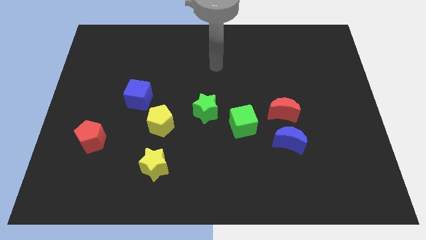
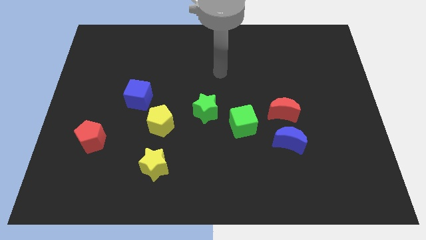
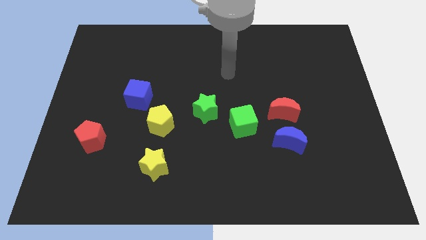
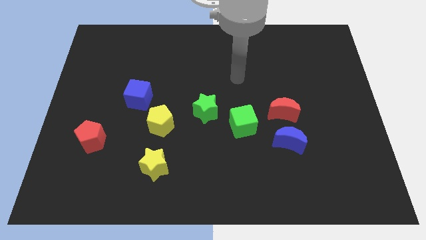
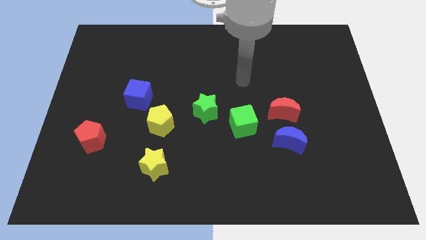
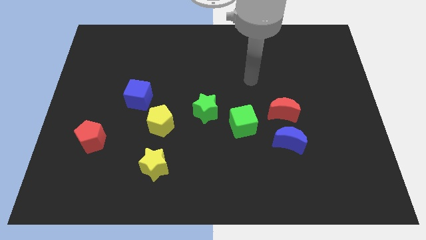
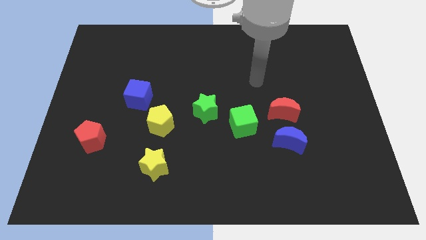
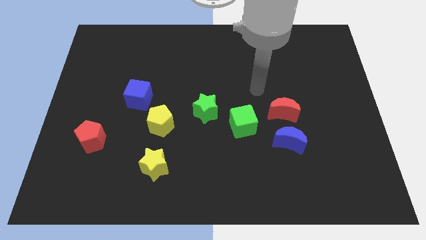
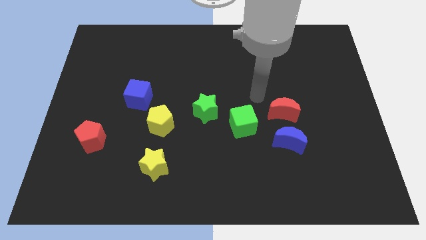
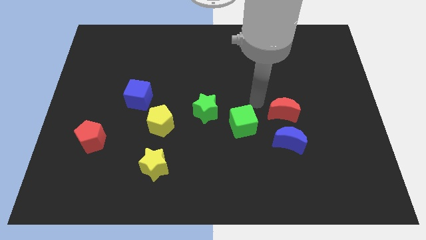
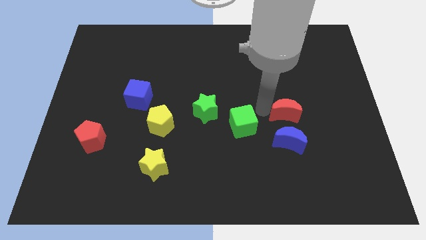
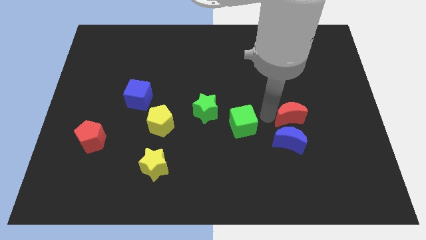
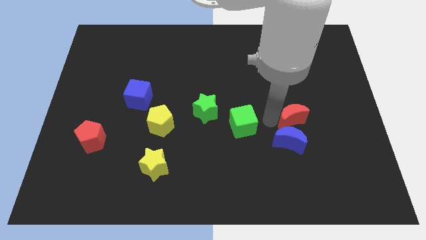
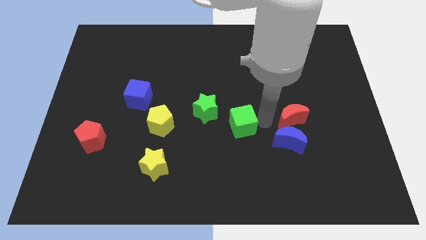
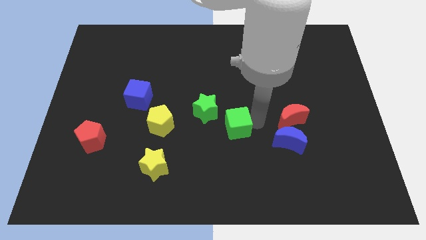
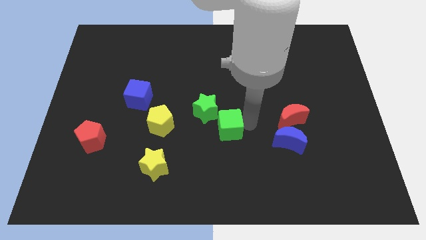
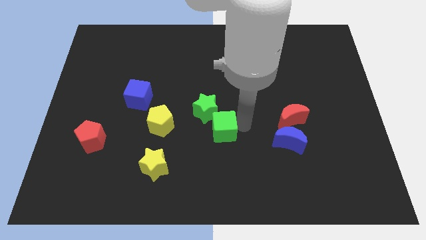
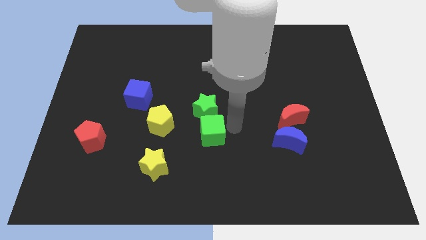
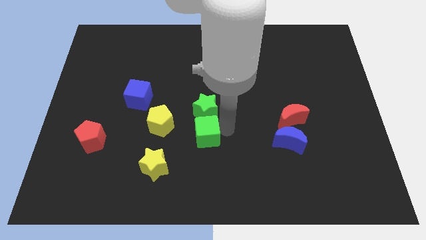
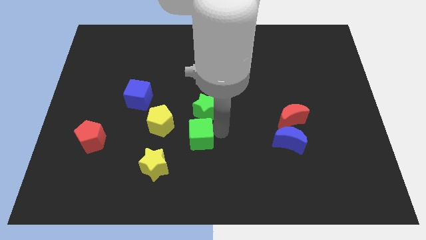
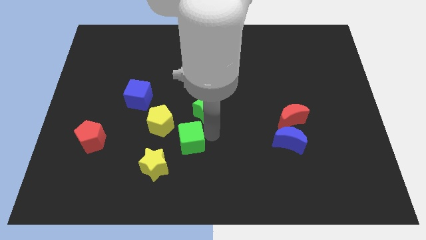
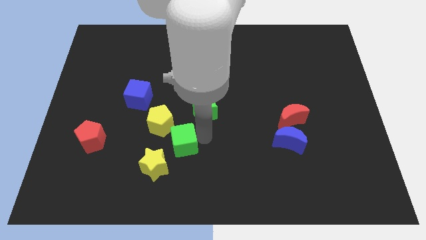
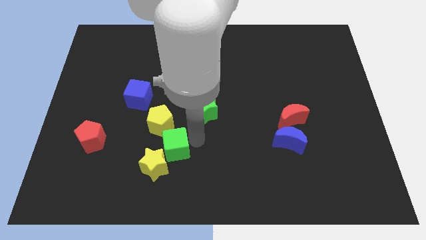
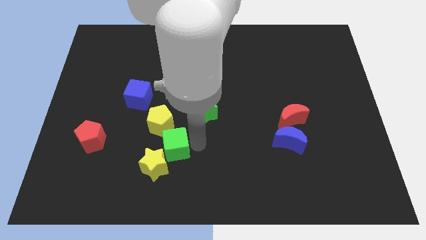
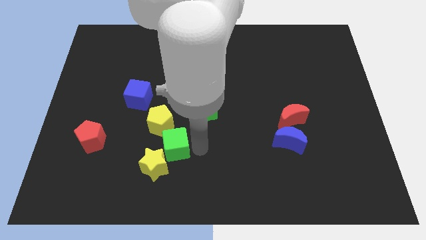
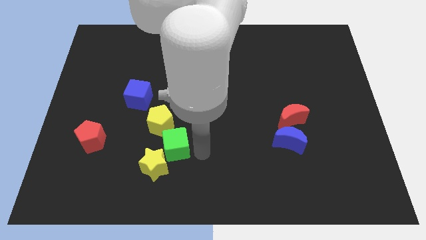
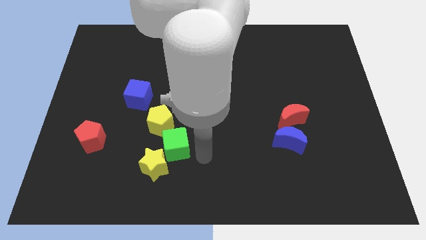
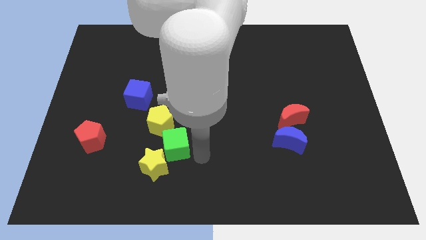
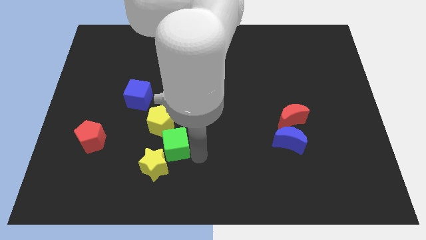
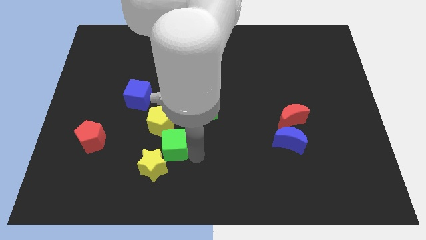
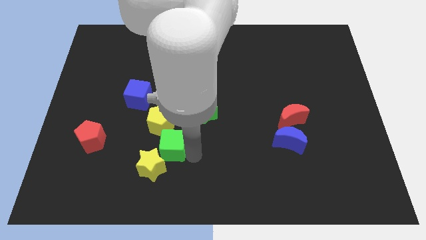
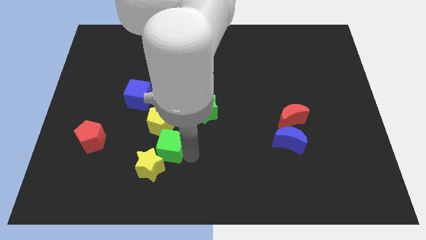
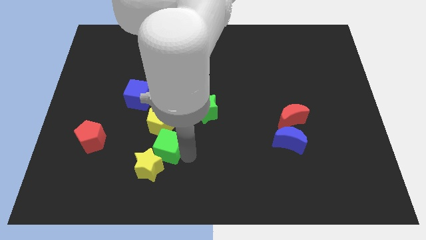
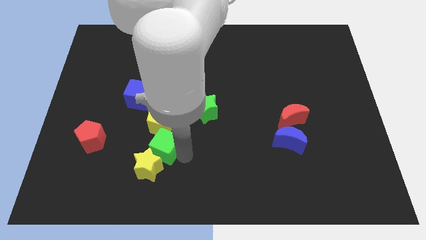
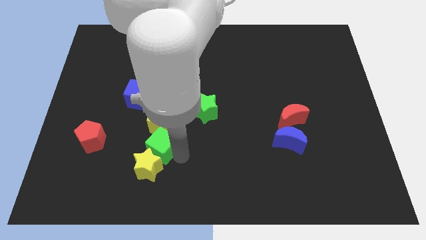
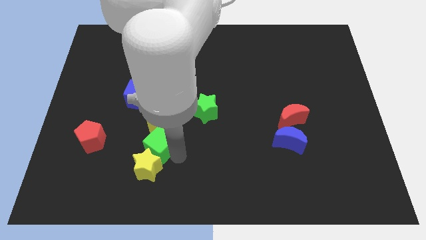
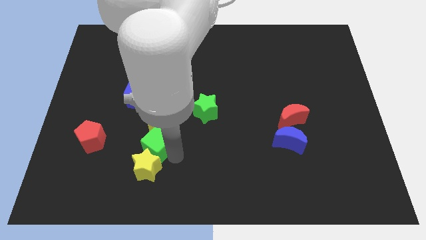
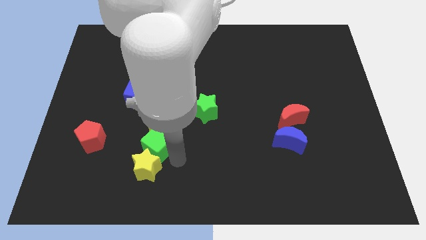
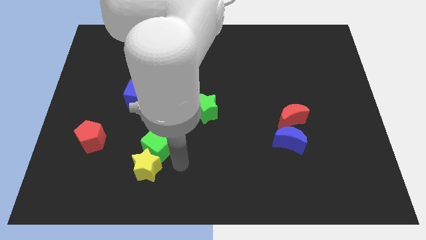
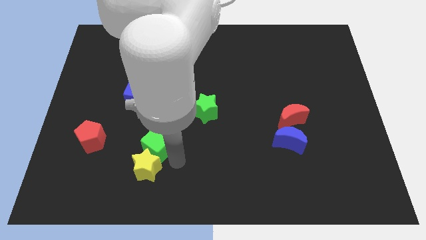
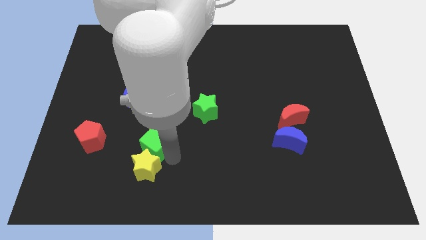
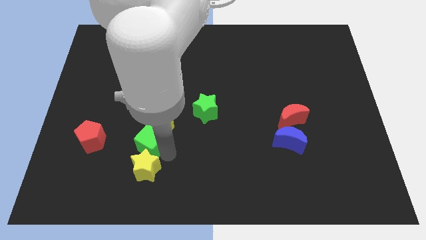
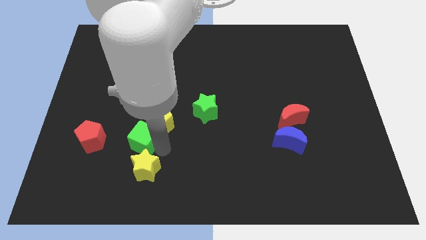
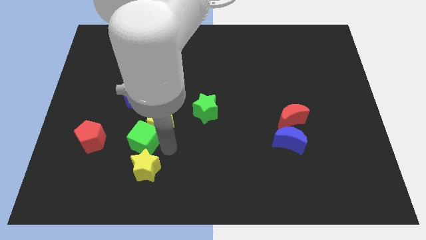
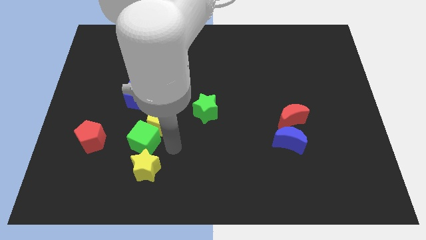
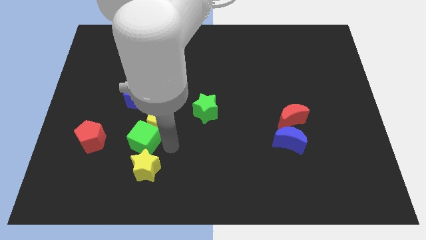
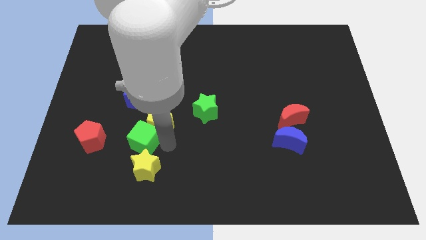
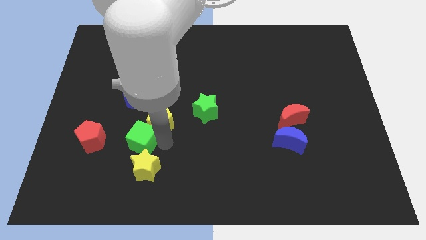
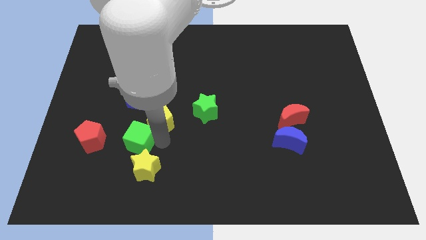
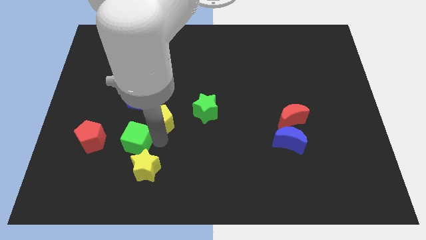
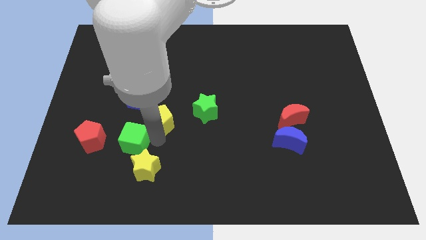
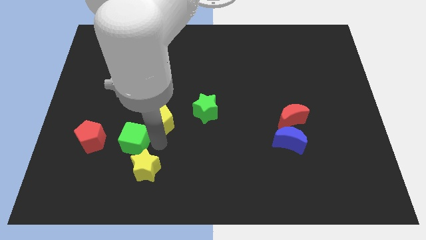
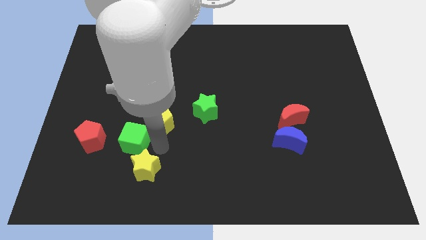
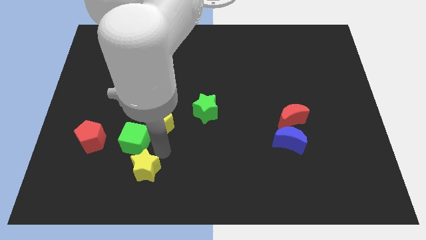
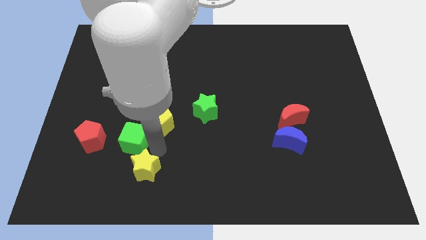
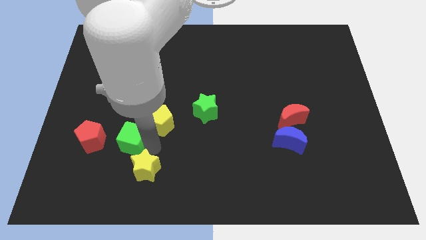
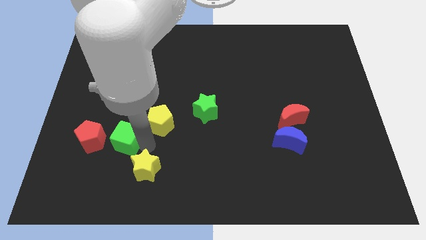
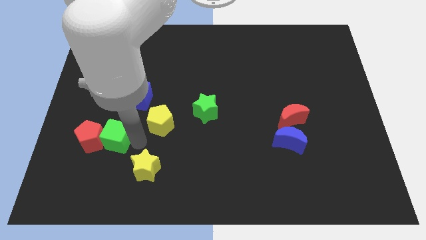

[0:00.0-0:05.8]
put the green cube close to the red pentagon

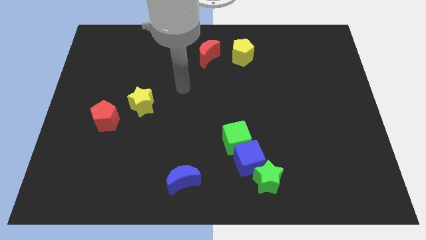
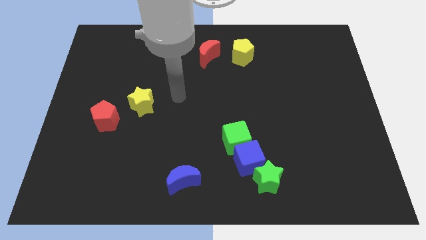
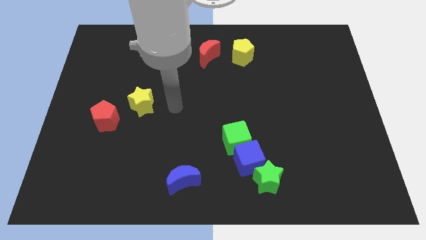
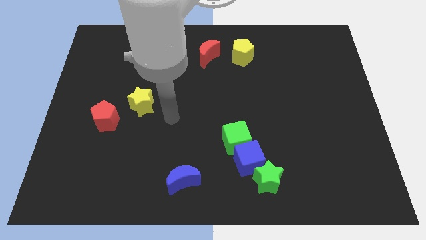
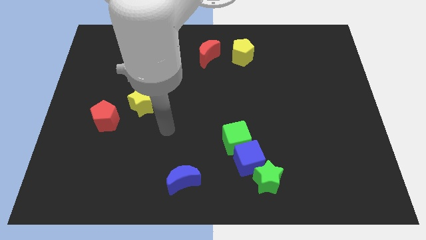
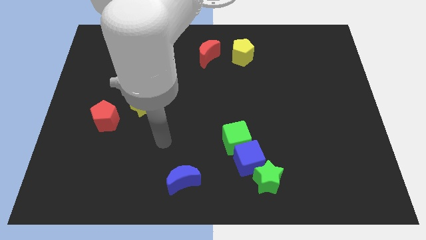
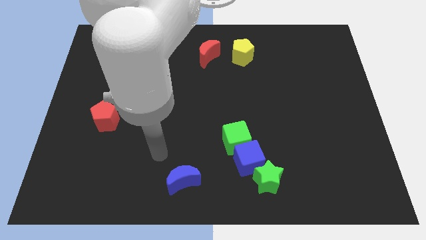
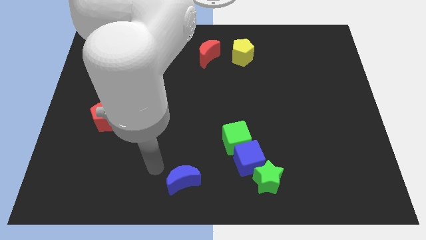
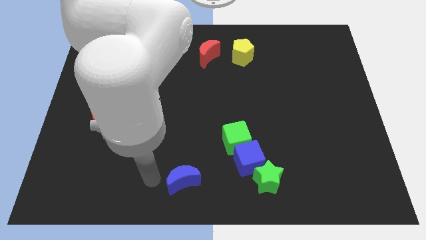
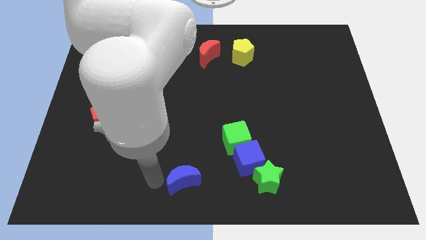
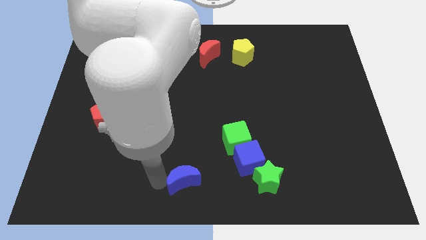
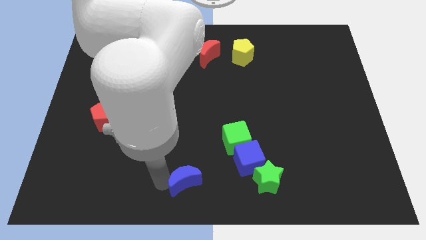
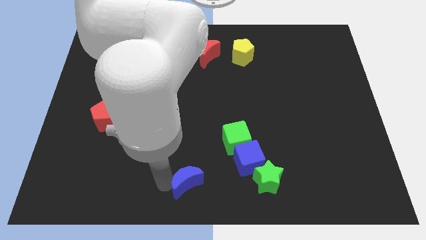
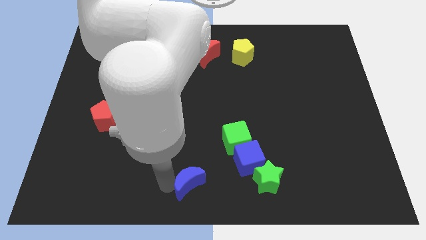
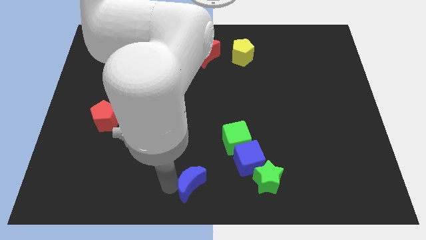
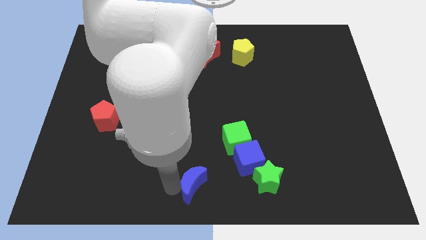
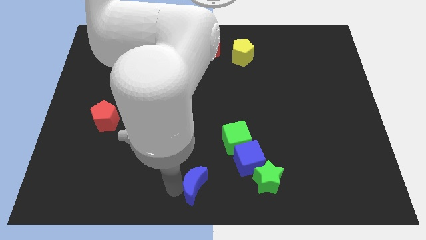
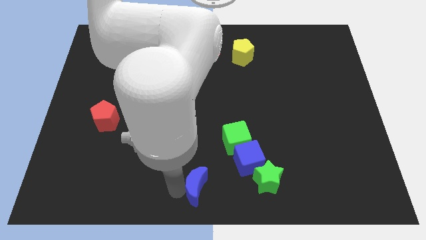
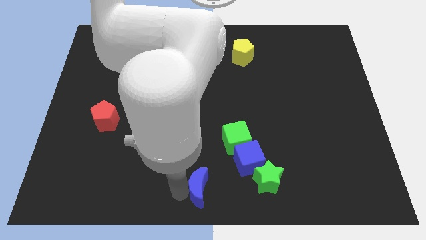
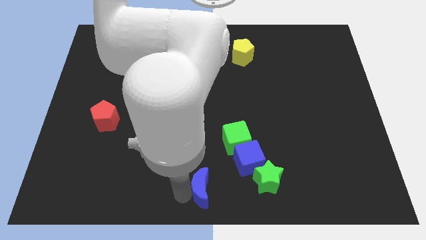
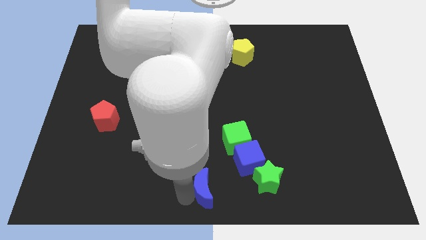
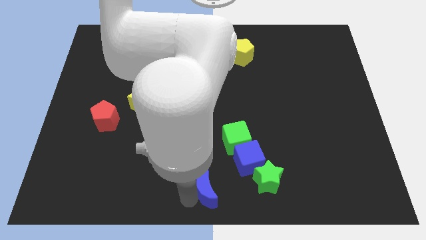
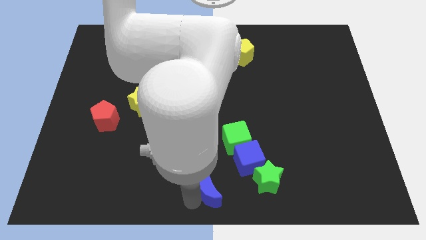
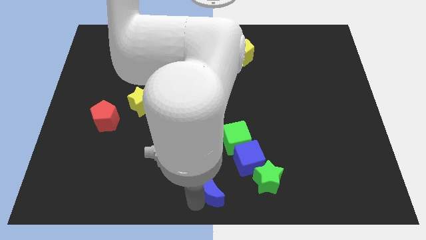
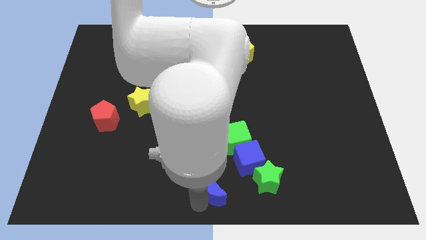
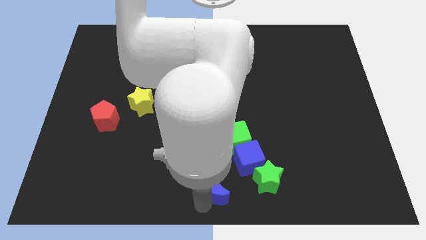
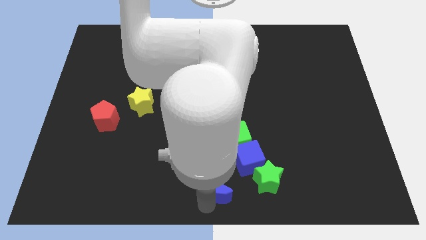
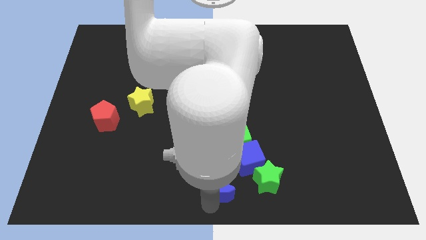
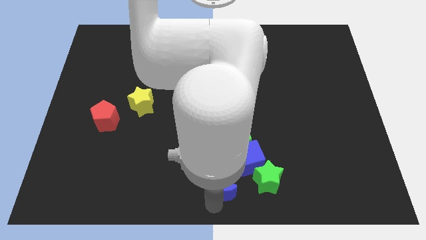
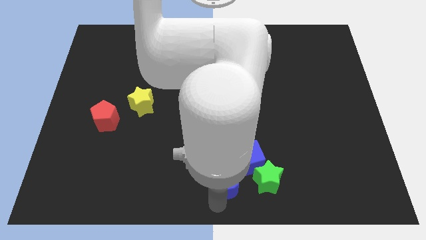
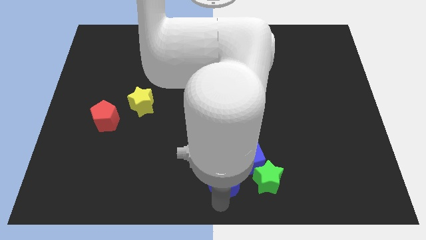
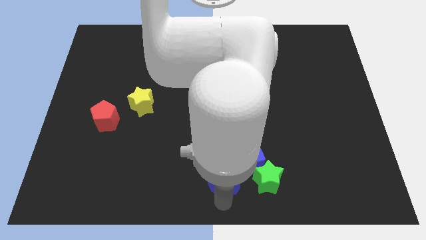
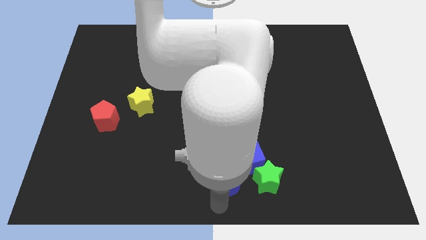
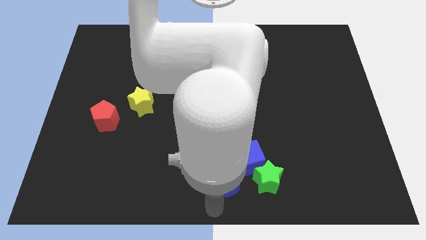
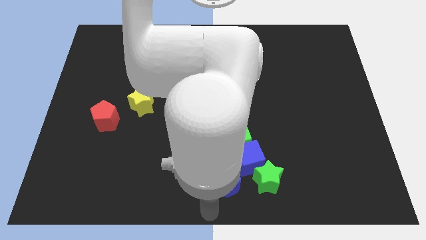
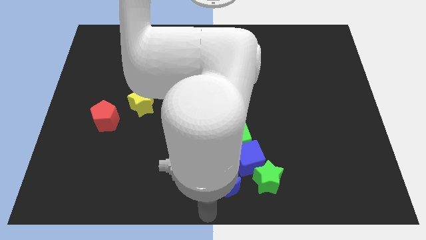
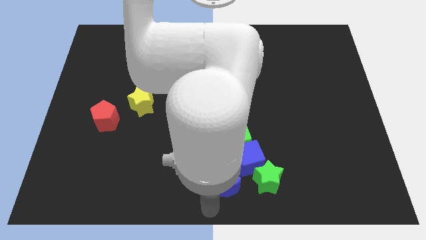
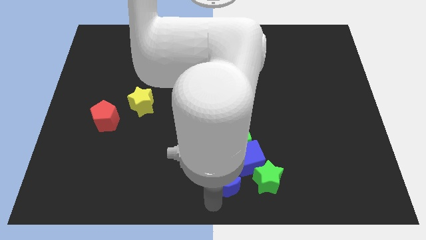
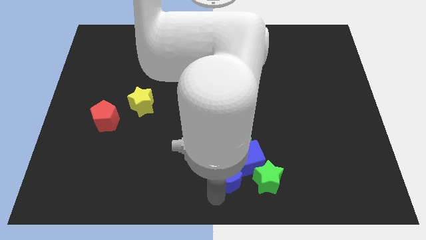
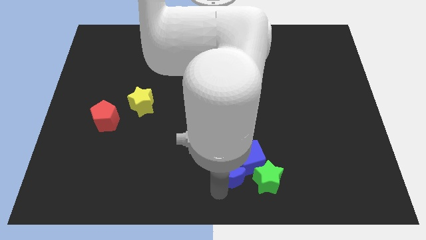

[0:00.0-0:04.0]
put the blue moon next to the blue cube
